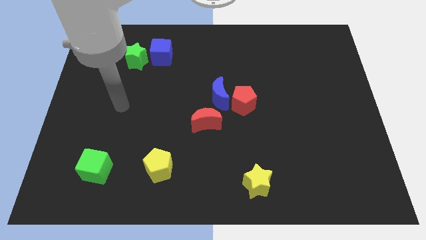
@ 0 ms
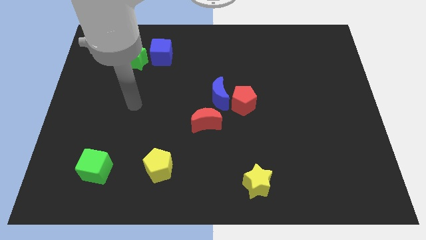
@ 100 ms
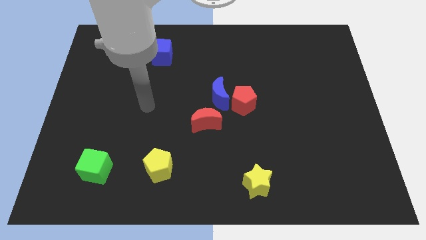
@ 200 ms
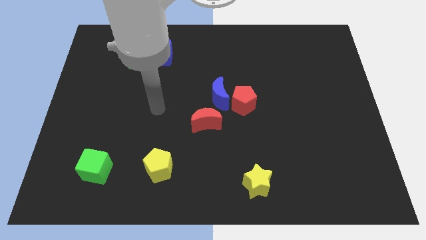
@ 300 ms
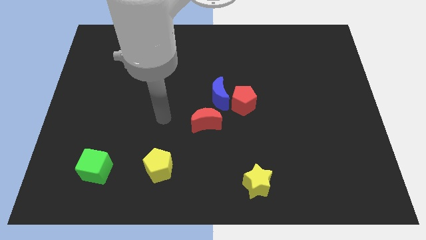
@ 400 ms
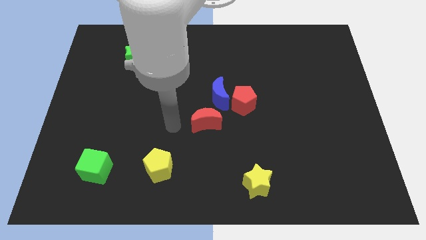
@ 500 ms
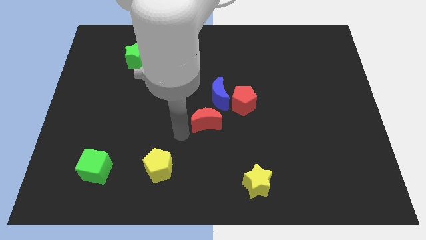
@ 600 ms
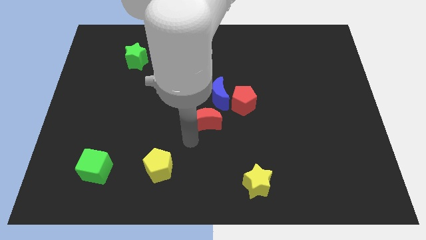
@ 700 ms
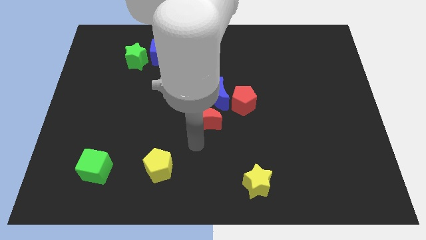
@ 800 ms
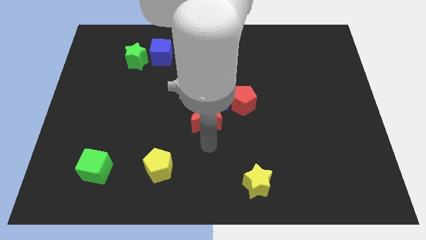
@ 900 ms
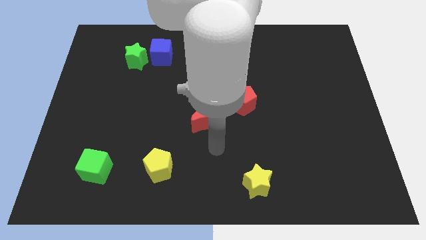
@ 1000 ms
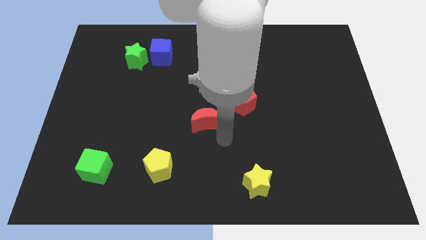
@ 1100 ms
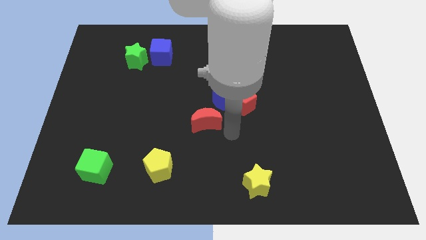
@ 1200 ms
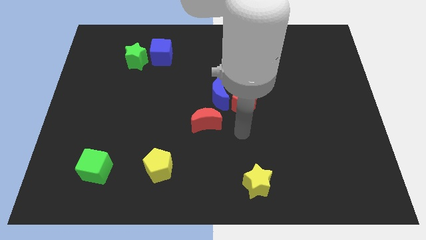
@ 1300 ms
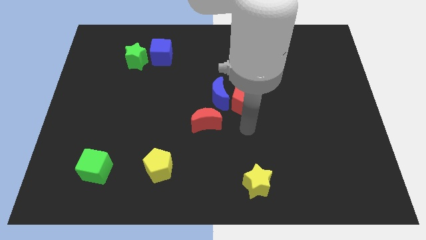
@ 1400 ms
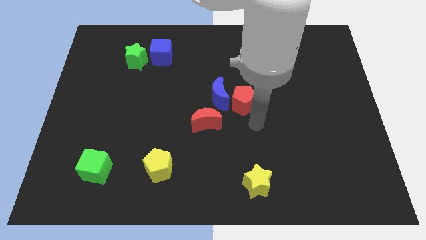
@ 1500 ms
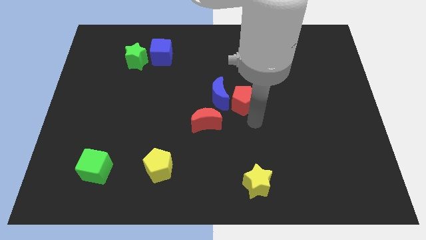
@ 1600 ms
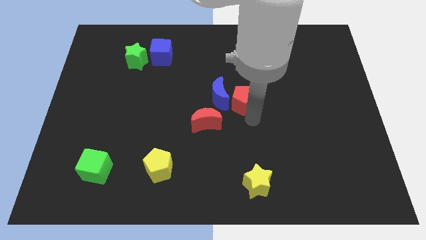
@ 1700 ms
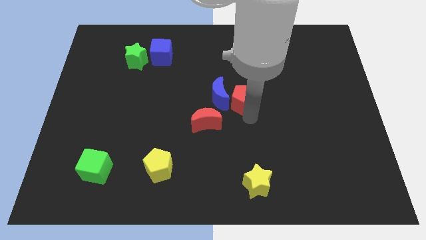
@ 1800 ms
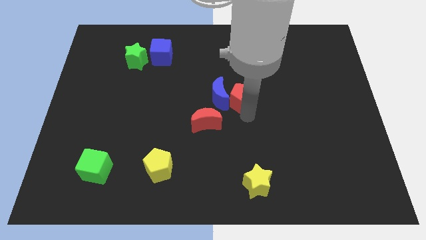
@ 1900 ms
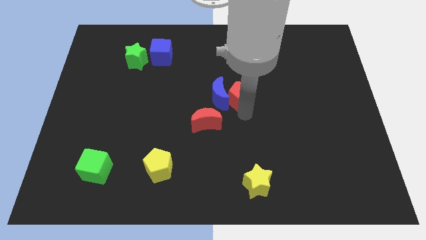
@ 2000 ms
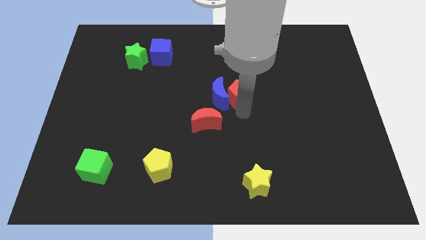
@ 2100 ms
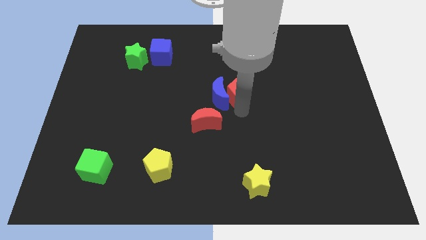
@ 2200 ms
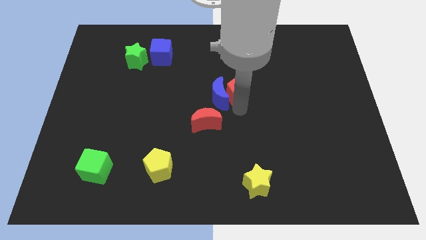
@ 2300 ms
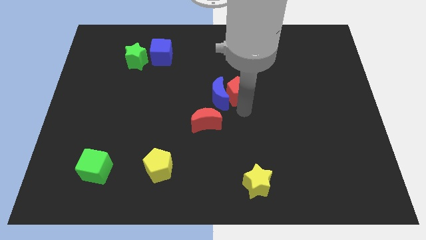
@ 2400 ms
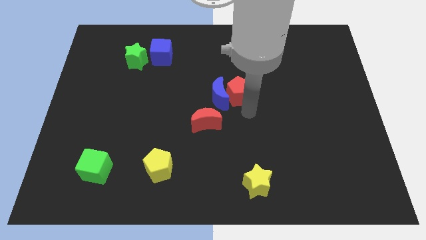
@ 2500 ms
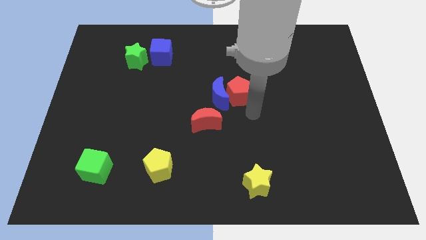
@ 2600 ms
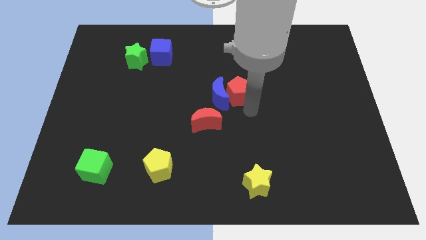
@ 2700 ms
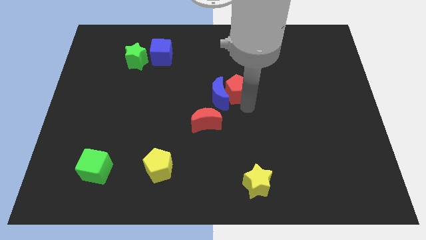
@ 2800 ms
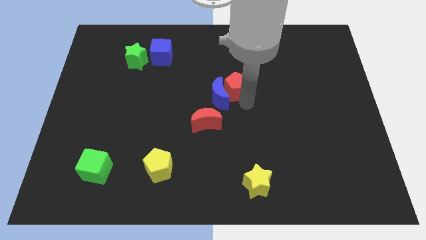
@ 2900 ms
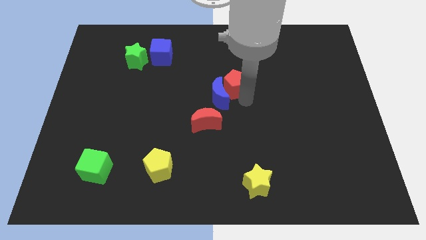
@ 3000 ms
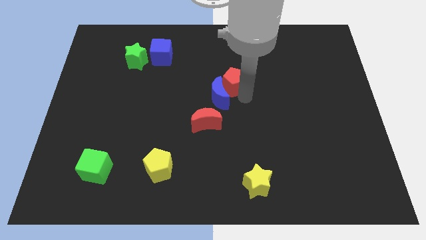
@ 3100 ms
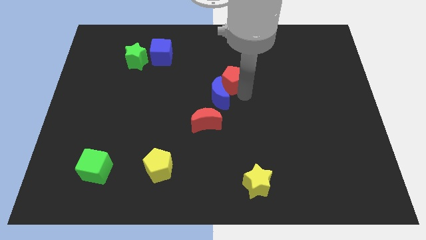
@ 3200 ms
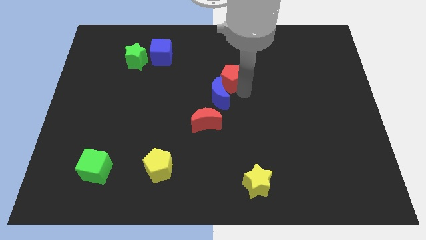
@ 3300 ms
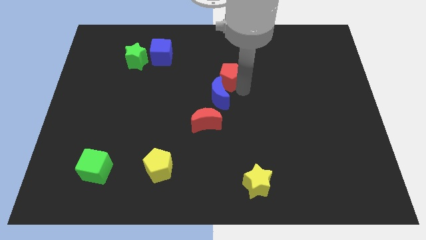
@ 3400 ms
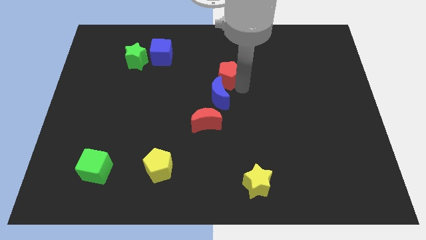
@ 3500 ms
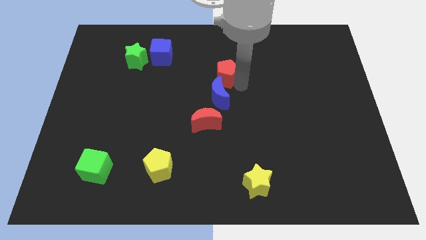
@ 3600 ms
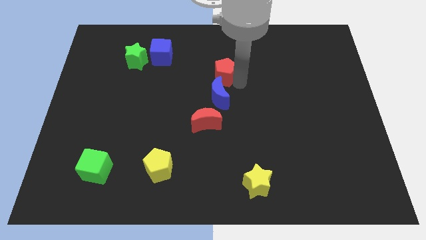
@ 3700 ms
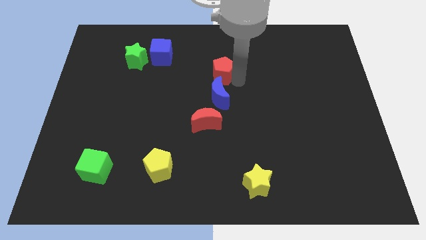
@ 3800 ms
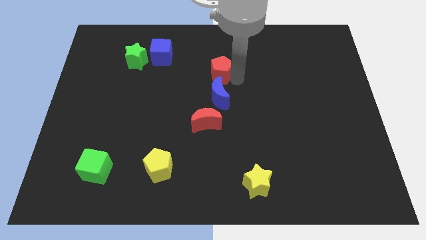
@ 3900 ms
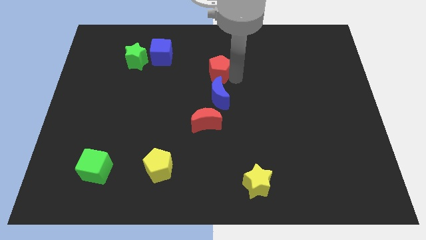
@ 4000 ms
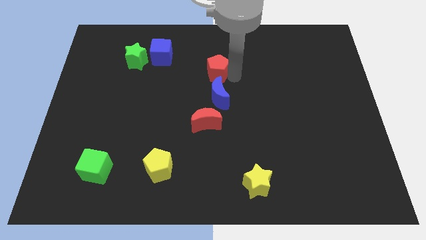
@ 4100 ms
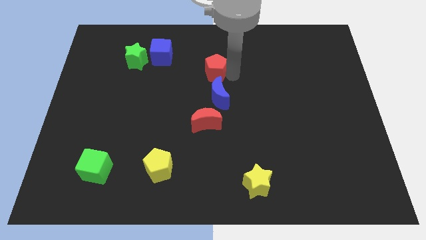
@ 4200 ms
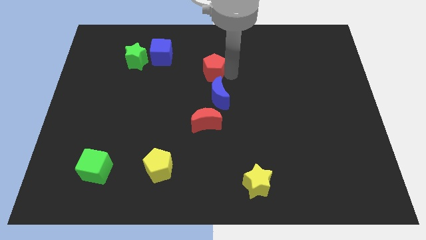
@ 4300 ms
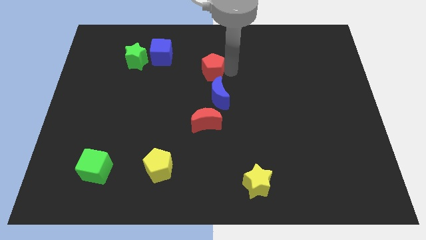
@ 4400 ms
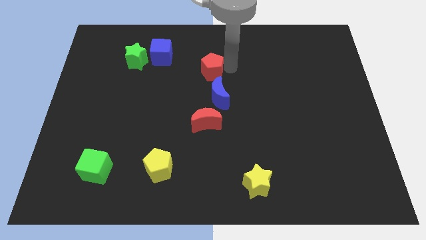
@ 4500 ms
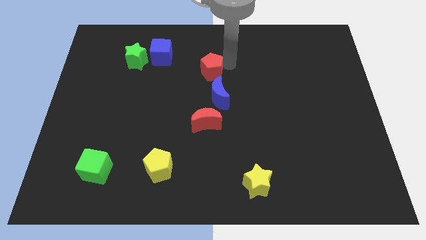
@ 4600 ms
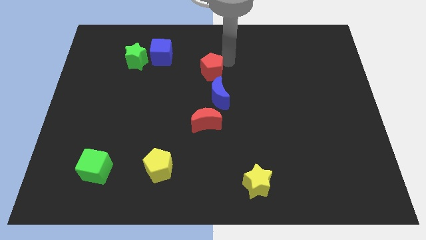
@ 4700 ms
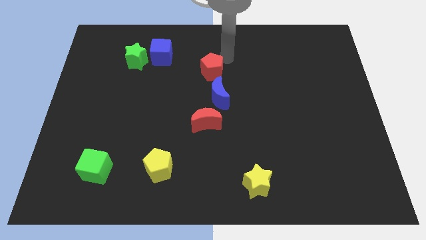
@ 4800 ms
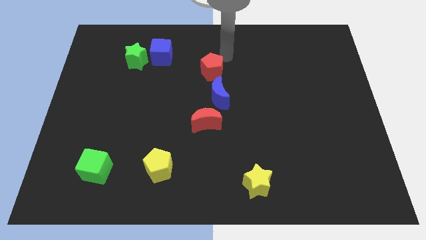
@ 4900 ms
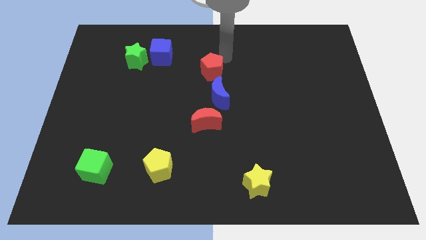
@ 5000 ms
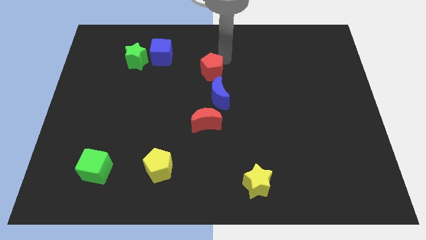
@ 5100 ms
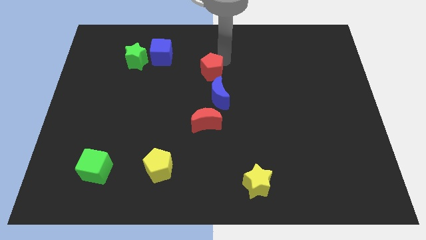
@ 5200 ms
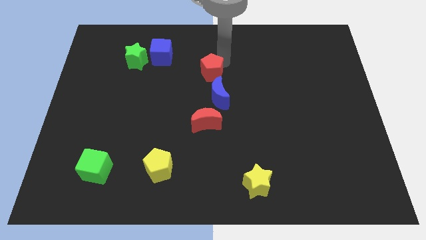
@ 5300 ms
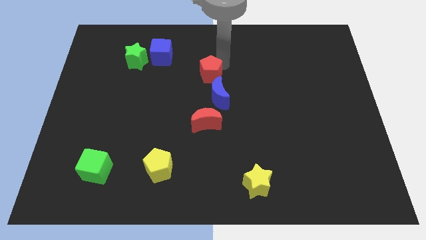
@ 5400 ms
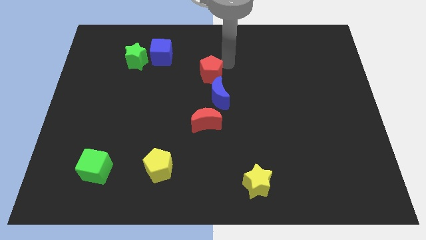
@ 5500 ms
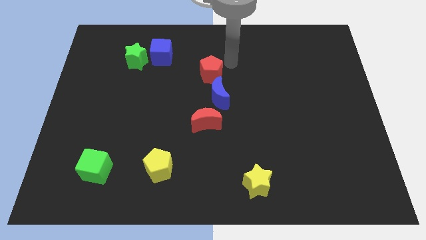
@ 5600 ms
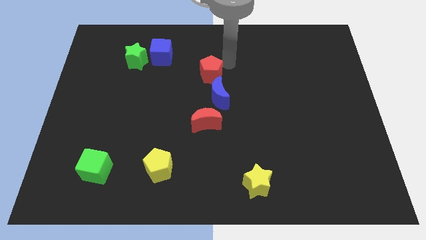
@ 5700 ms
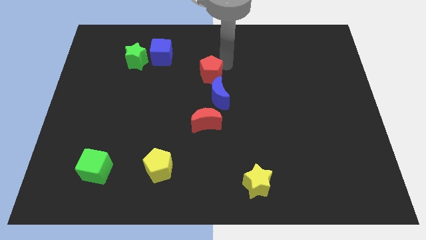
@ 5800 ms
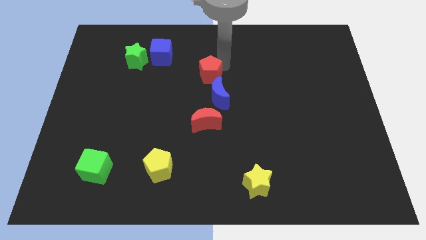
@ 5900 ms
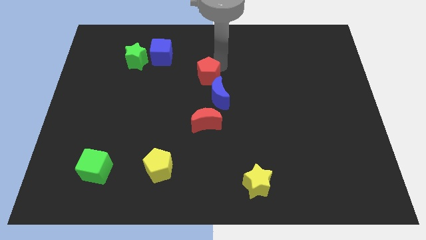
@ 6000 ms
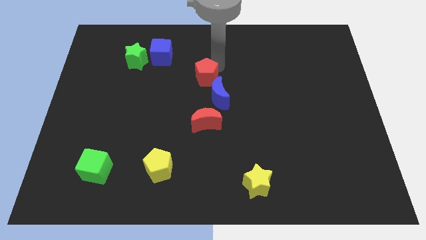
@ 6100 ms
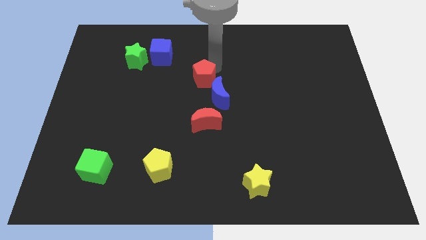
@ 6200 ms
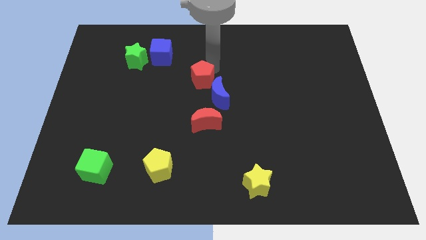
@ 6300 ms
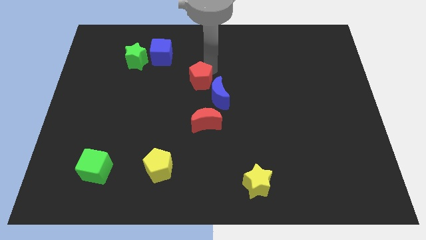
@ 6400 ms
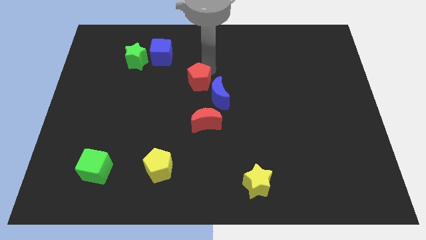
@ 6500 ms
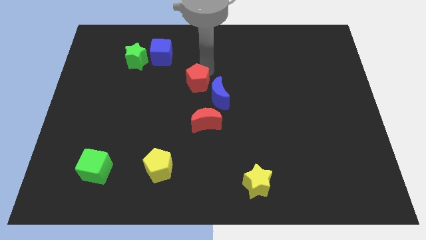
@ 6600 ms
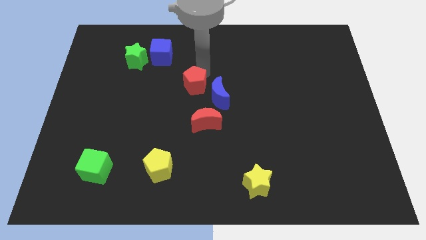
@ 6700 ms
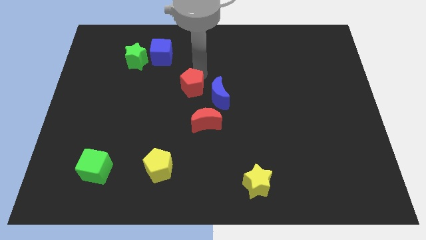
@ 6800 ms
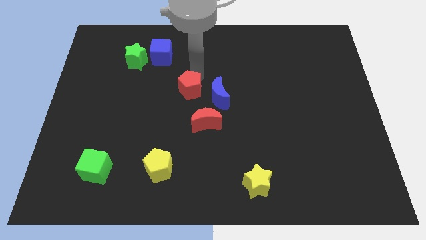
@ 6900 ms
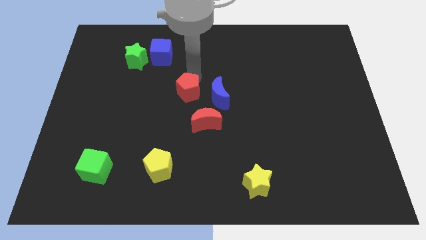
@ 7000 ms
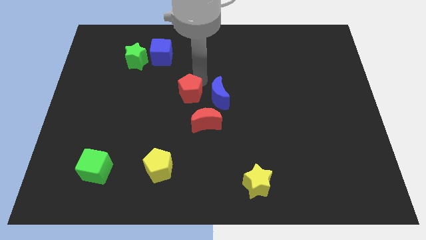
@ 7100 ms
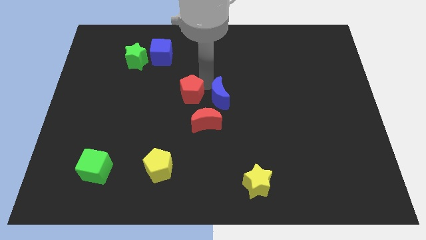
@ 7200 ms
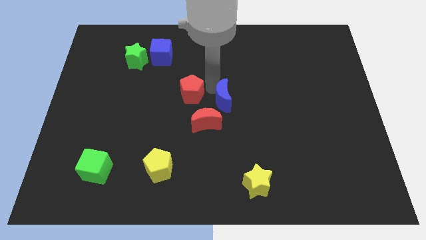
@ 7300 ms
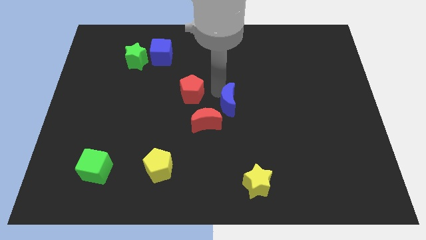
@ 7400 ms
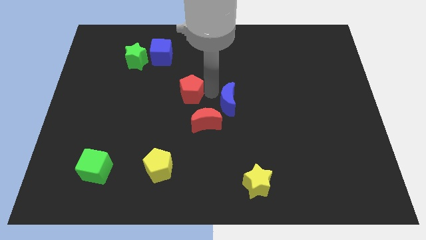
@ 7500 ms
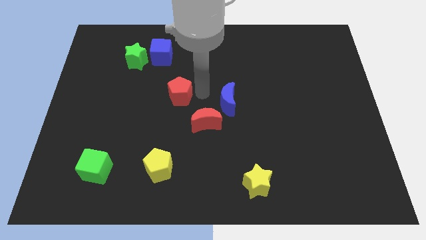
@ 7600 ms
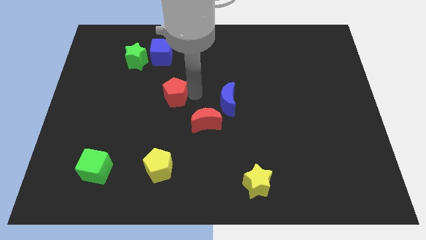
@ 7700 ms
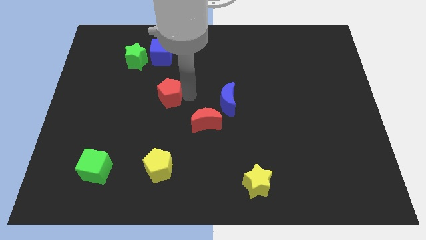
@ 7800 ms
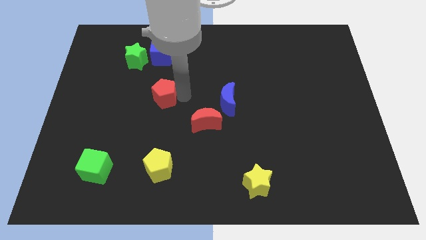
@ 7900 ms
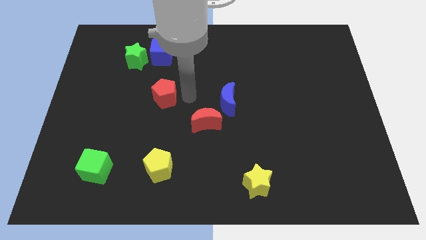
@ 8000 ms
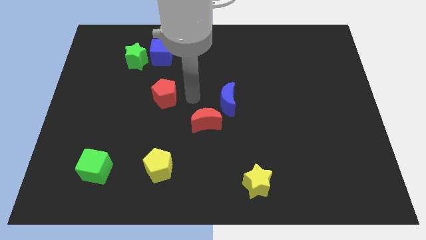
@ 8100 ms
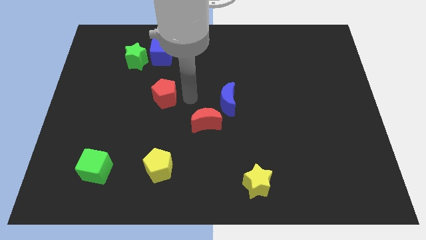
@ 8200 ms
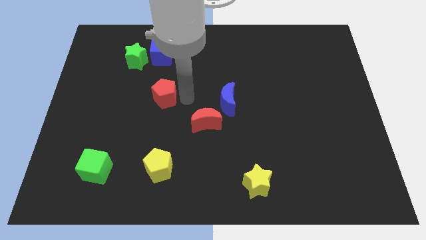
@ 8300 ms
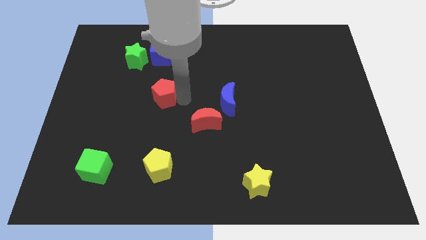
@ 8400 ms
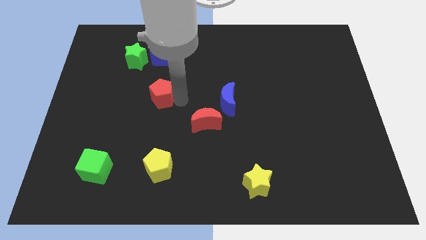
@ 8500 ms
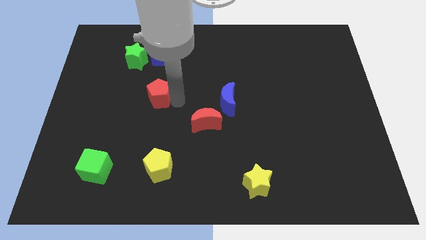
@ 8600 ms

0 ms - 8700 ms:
slide the red pentagon to the left
